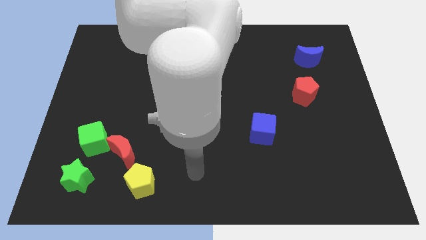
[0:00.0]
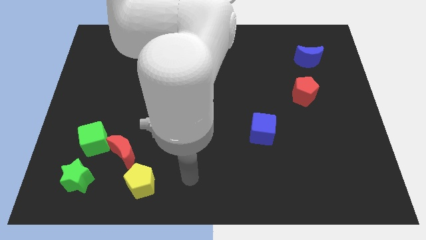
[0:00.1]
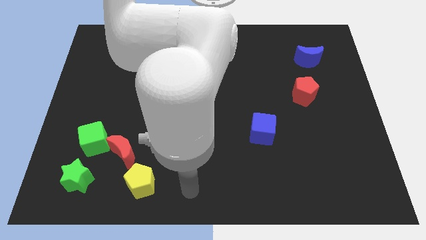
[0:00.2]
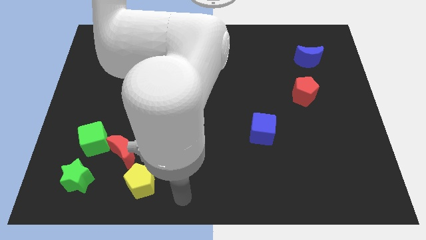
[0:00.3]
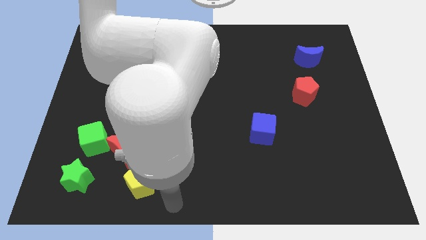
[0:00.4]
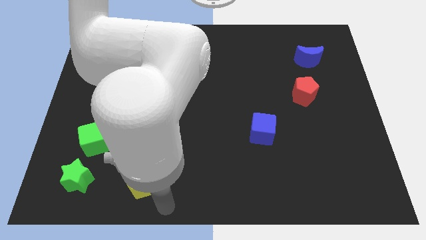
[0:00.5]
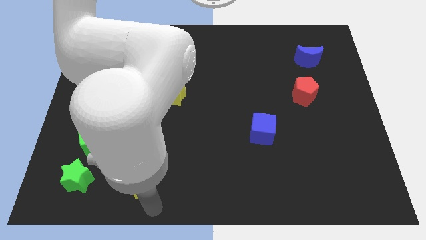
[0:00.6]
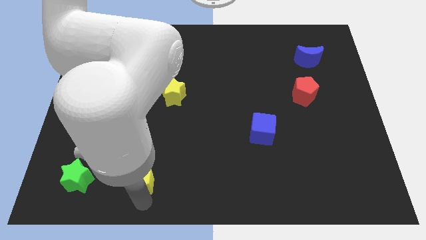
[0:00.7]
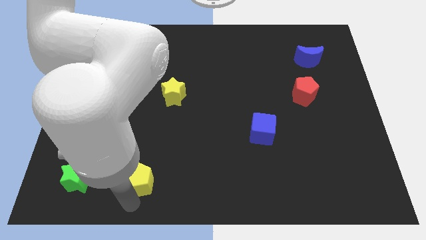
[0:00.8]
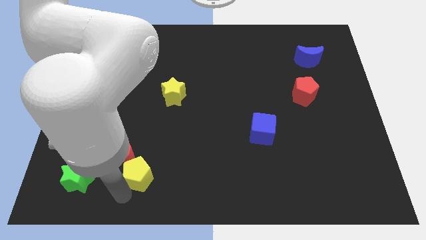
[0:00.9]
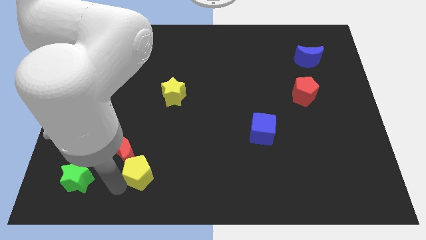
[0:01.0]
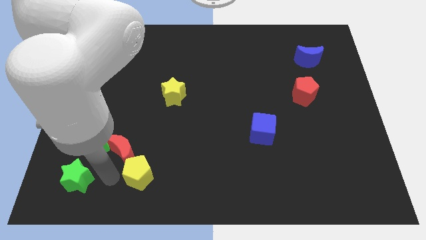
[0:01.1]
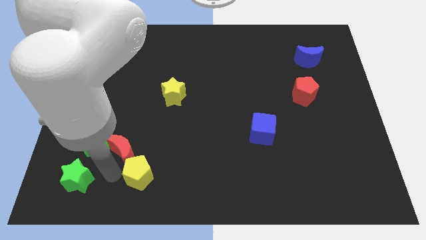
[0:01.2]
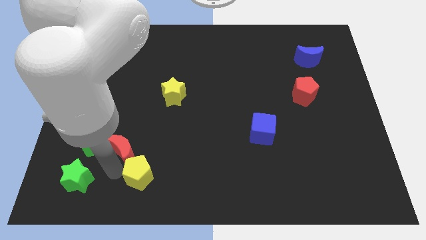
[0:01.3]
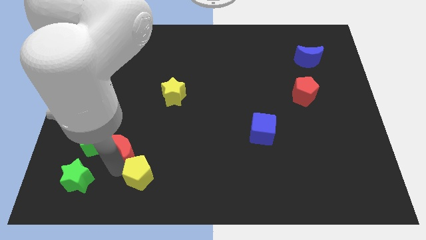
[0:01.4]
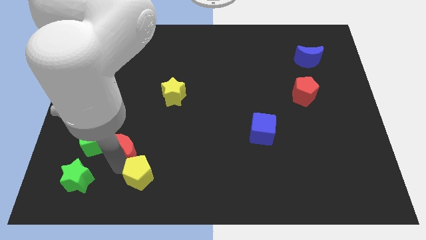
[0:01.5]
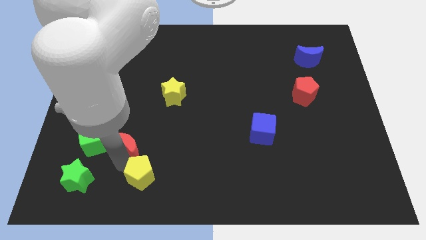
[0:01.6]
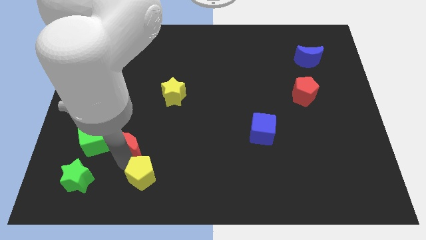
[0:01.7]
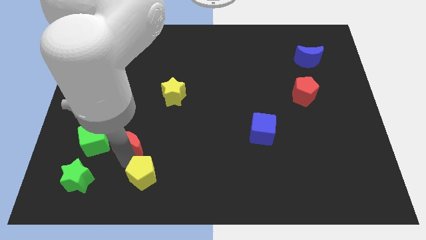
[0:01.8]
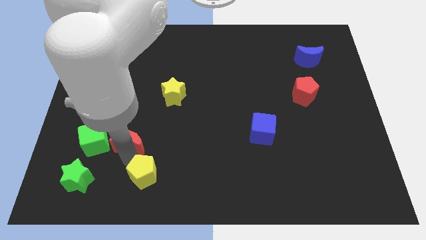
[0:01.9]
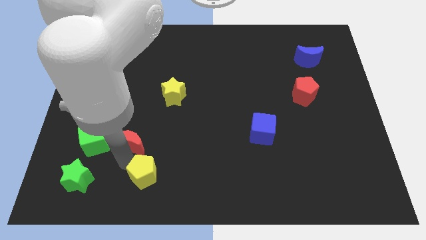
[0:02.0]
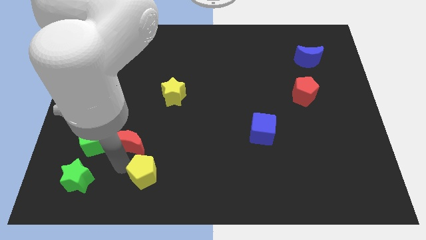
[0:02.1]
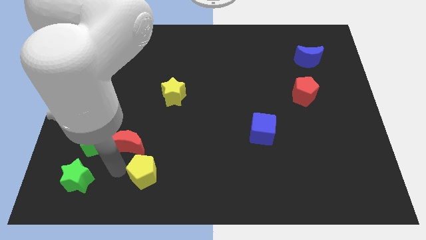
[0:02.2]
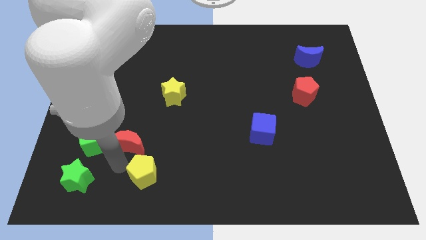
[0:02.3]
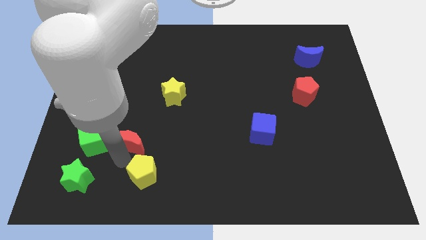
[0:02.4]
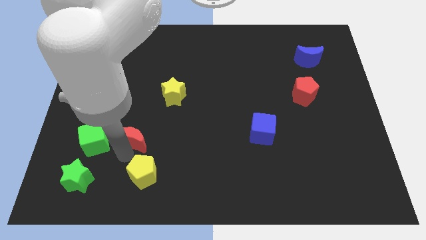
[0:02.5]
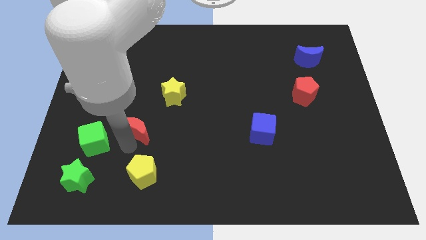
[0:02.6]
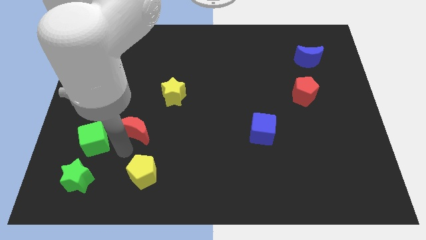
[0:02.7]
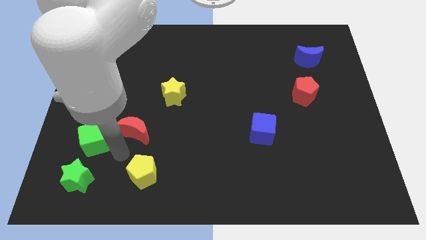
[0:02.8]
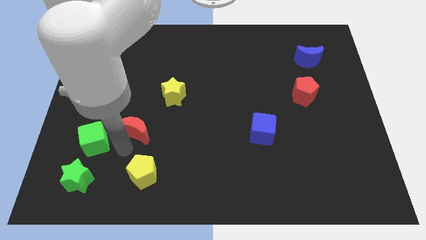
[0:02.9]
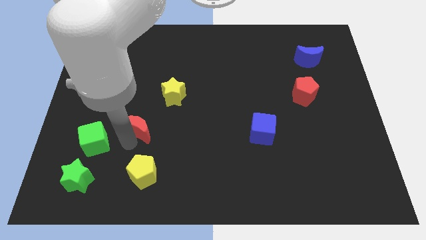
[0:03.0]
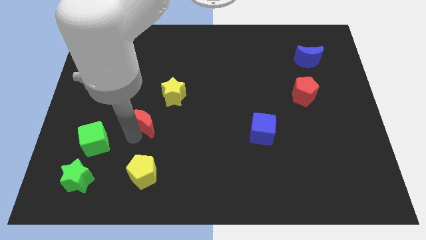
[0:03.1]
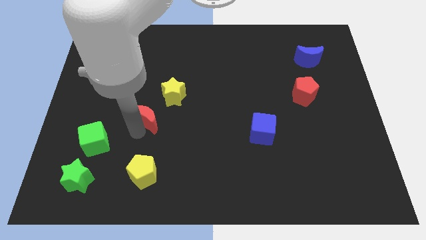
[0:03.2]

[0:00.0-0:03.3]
pull the red moon apart from the green cube and yellow pentagon

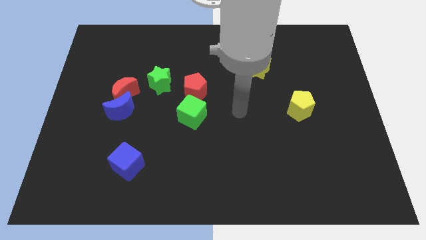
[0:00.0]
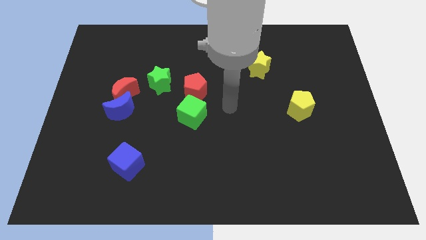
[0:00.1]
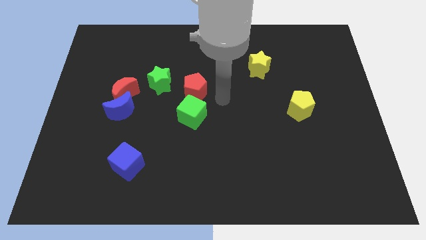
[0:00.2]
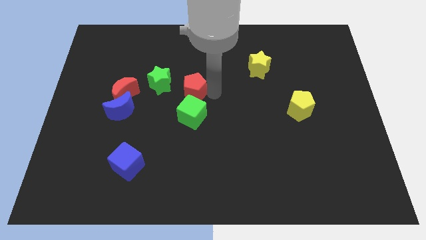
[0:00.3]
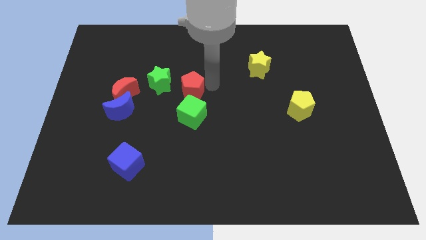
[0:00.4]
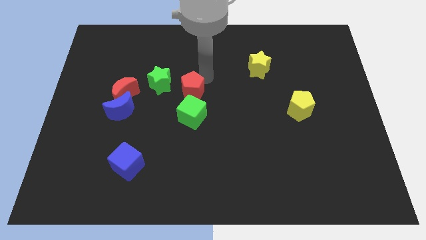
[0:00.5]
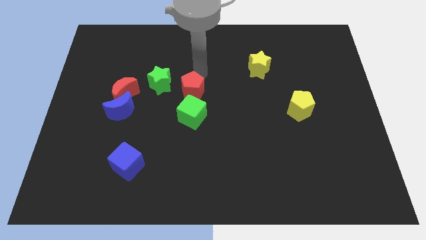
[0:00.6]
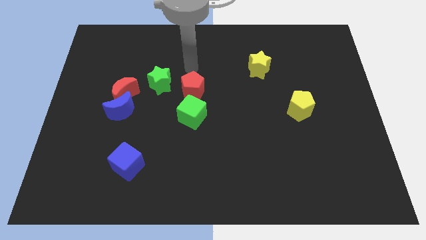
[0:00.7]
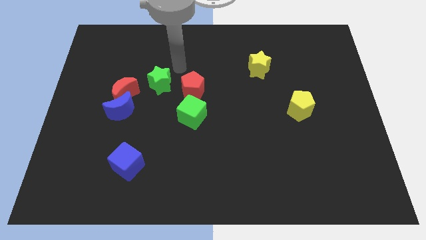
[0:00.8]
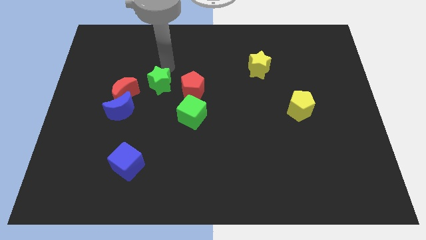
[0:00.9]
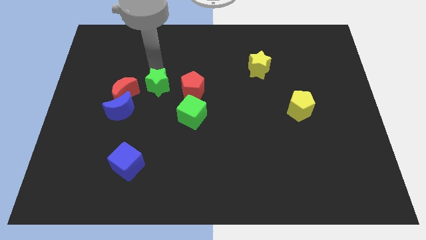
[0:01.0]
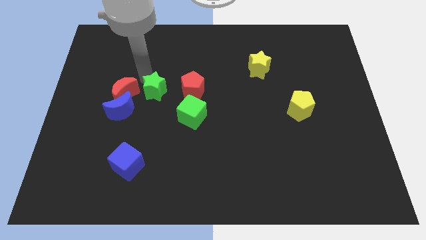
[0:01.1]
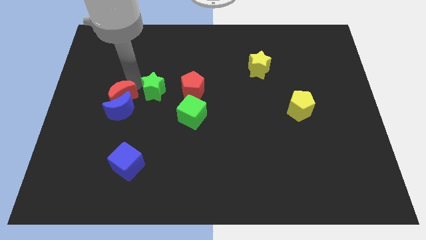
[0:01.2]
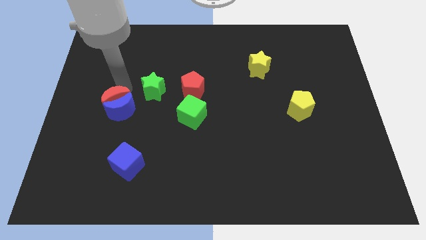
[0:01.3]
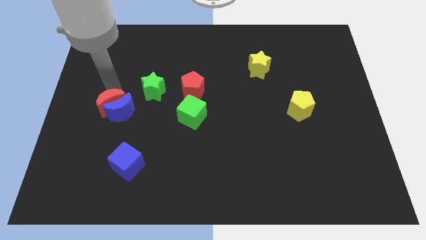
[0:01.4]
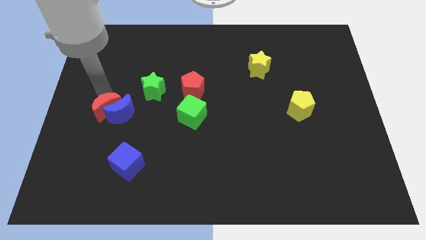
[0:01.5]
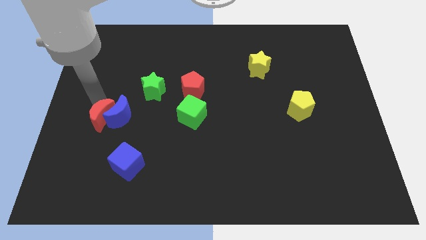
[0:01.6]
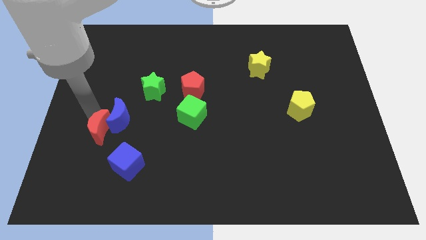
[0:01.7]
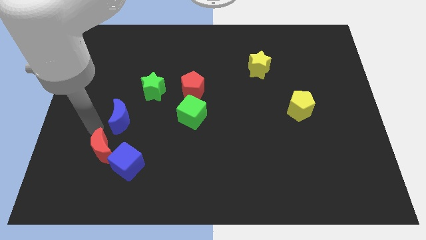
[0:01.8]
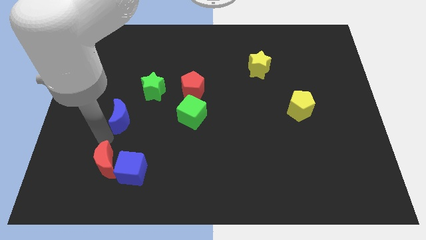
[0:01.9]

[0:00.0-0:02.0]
move the blue moon away from the red moon

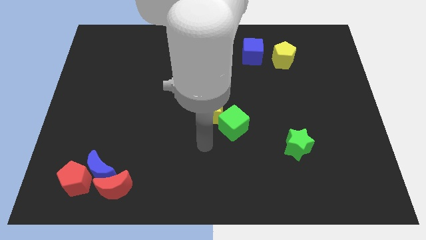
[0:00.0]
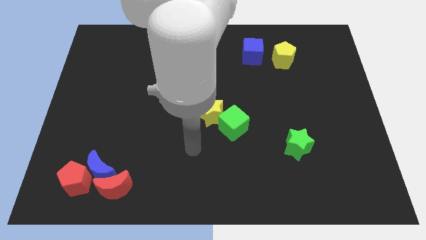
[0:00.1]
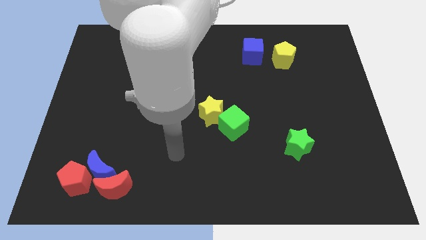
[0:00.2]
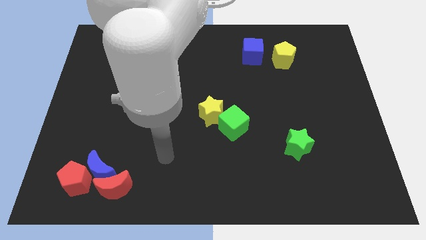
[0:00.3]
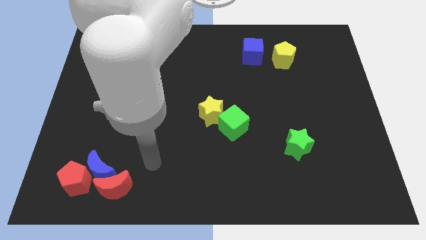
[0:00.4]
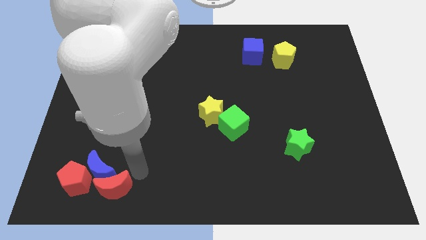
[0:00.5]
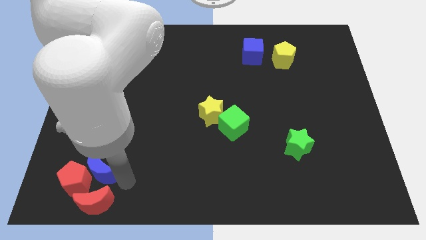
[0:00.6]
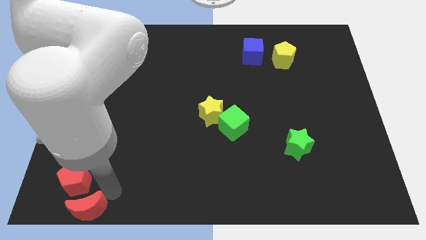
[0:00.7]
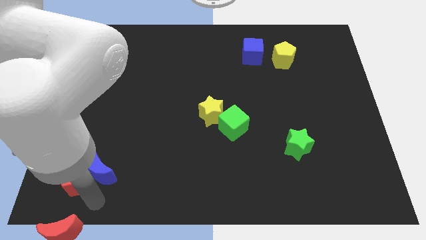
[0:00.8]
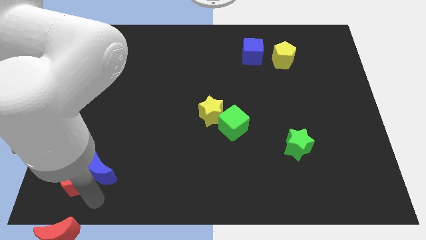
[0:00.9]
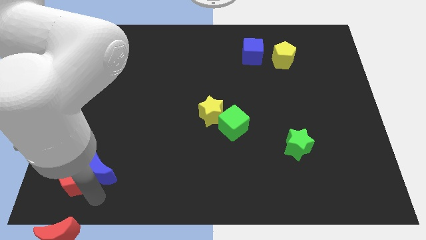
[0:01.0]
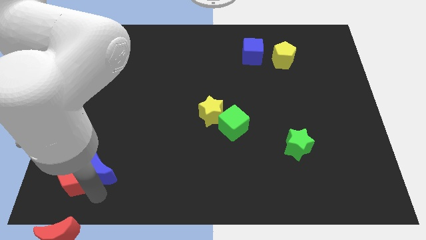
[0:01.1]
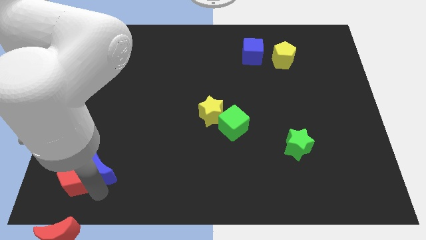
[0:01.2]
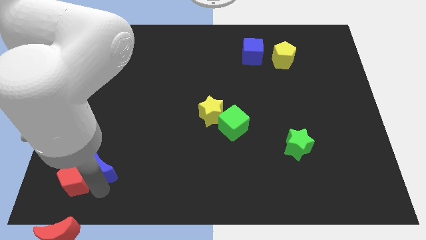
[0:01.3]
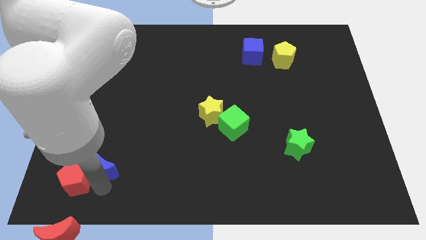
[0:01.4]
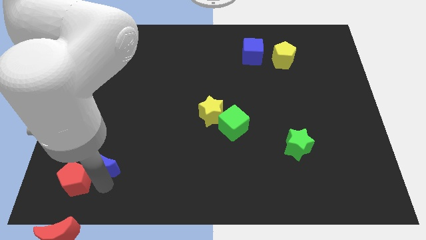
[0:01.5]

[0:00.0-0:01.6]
pull the blue moon apart from the red moon and red pentagon

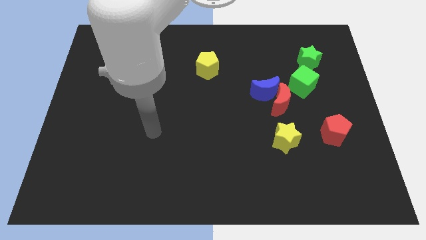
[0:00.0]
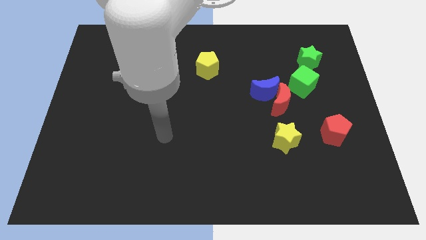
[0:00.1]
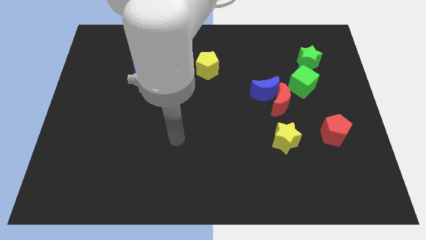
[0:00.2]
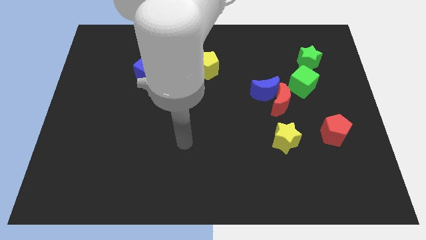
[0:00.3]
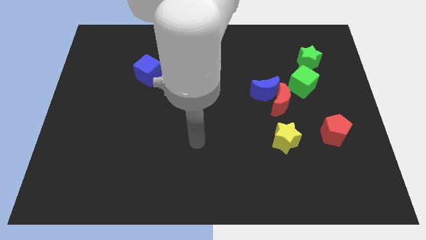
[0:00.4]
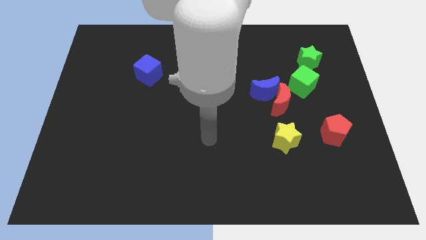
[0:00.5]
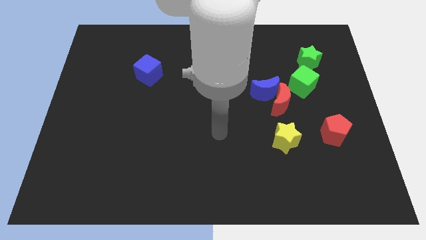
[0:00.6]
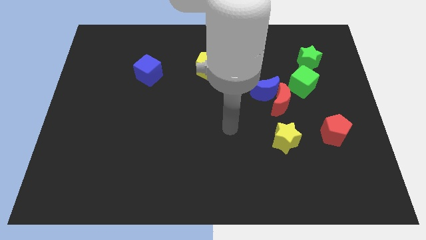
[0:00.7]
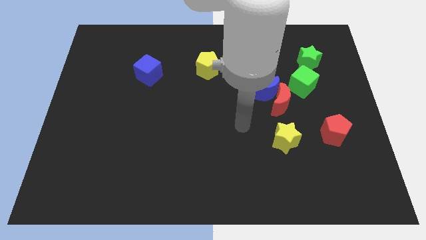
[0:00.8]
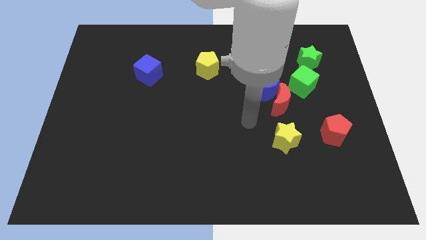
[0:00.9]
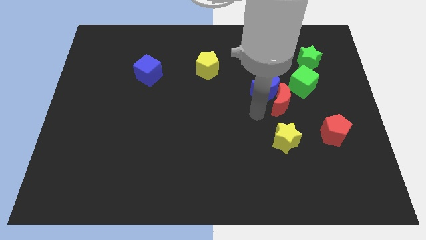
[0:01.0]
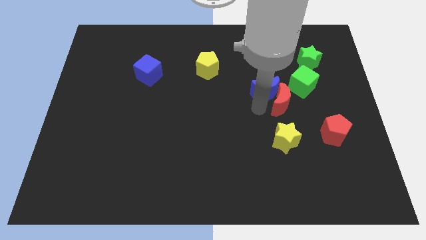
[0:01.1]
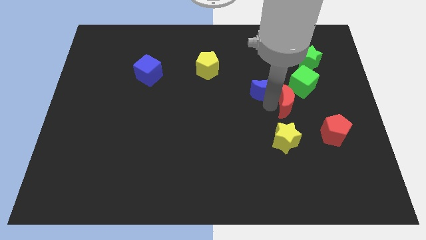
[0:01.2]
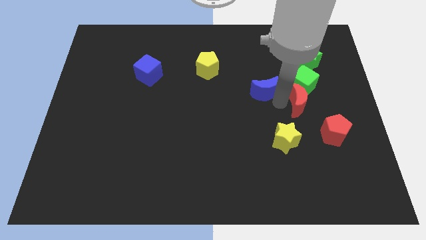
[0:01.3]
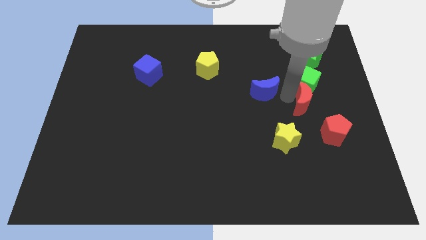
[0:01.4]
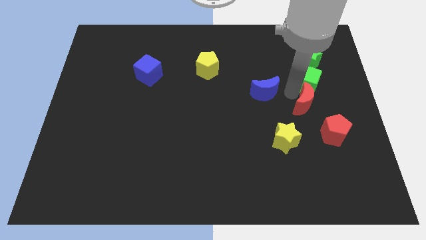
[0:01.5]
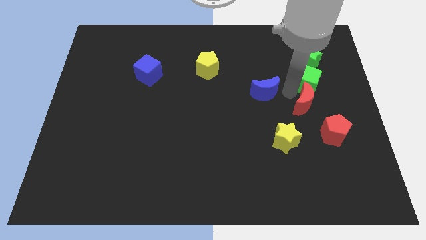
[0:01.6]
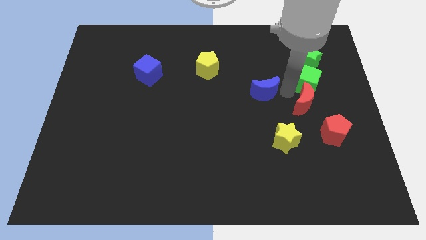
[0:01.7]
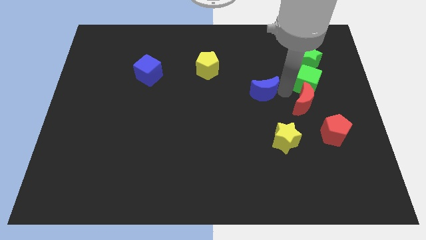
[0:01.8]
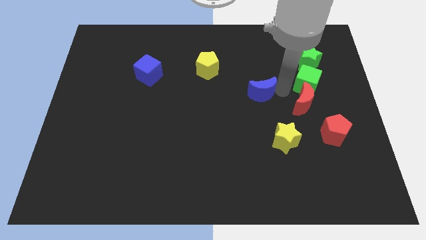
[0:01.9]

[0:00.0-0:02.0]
separate the blue moon from the red moon and green cube

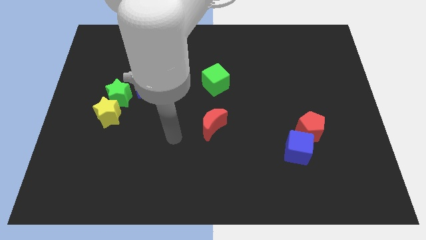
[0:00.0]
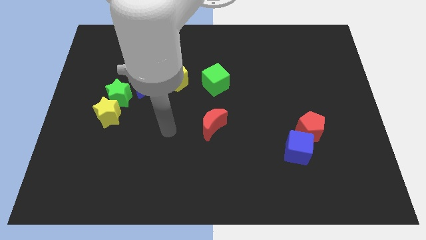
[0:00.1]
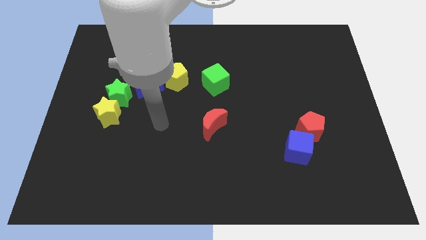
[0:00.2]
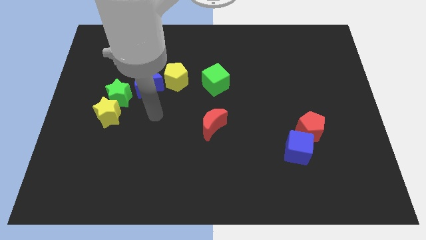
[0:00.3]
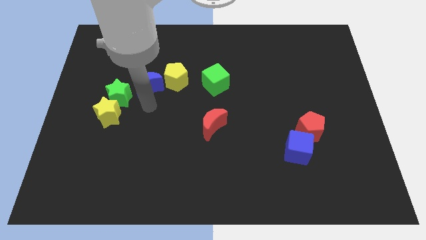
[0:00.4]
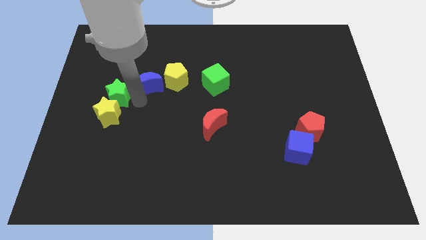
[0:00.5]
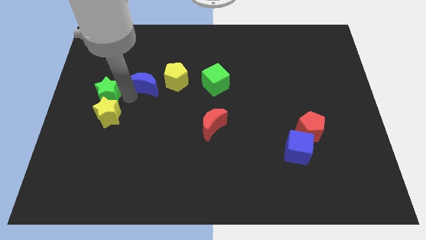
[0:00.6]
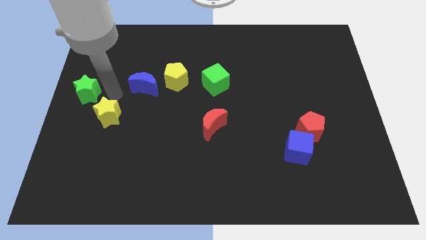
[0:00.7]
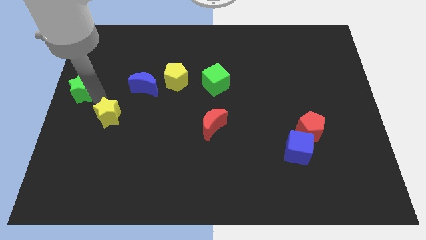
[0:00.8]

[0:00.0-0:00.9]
pull the yellow star apart from the green star
